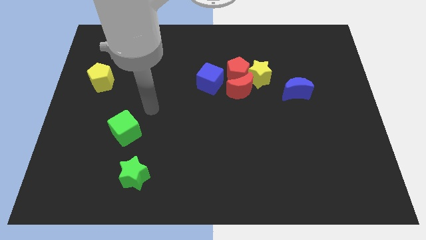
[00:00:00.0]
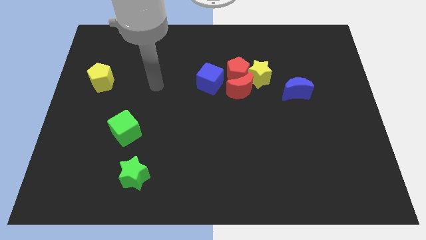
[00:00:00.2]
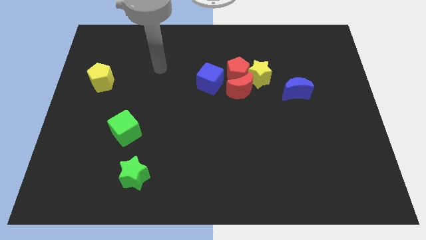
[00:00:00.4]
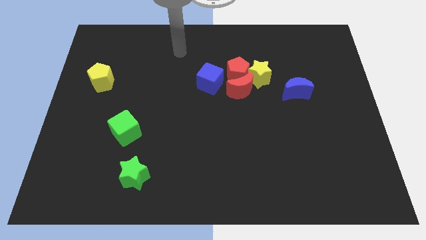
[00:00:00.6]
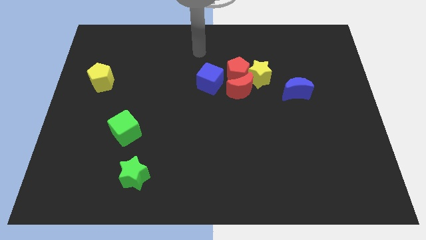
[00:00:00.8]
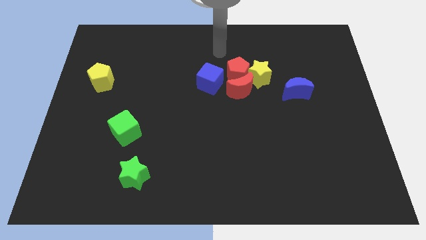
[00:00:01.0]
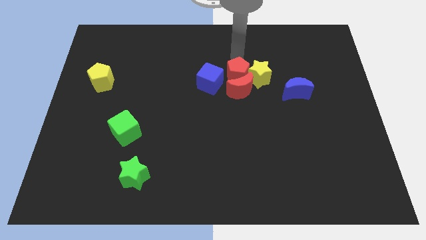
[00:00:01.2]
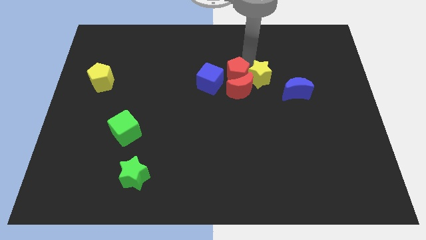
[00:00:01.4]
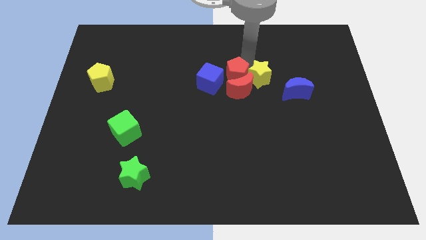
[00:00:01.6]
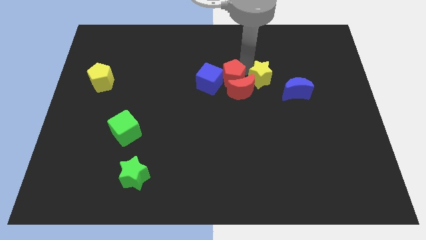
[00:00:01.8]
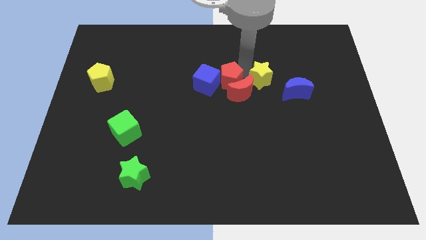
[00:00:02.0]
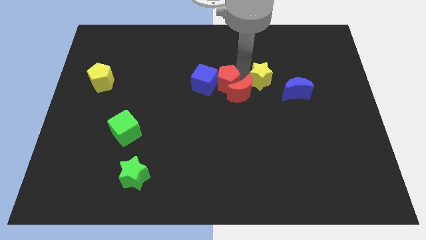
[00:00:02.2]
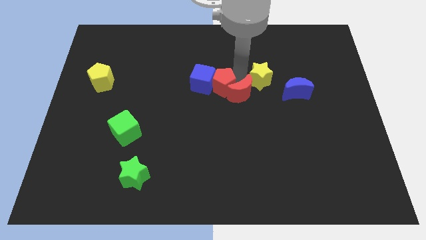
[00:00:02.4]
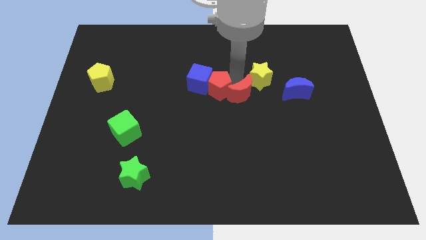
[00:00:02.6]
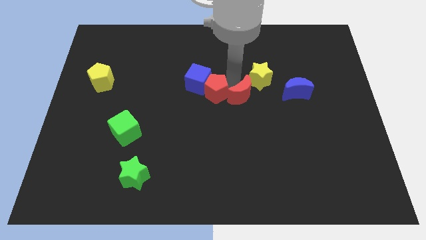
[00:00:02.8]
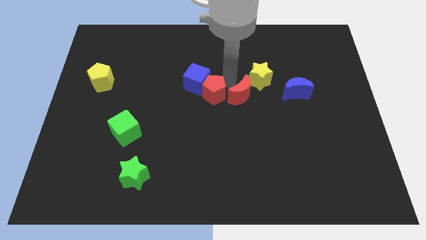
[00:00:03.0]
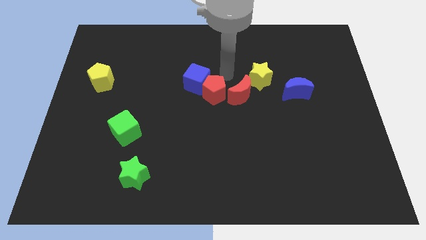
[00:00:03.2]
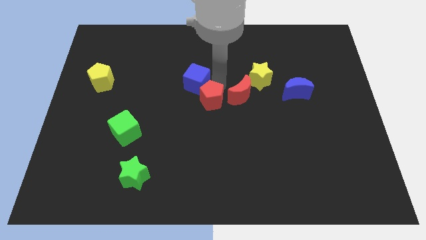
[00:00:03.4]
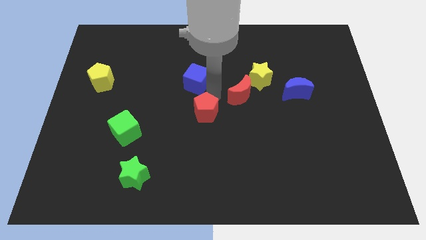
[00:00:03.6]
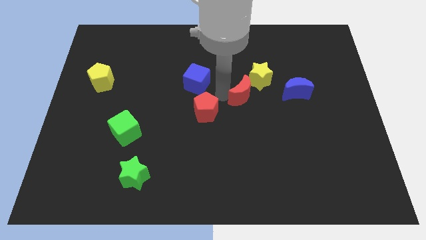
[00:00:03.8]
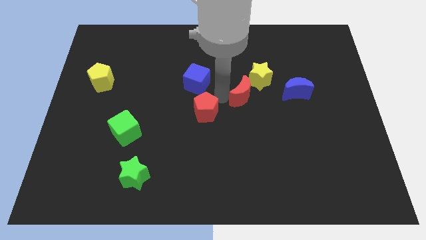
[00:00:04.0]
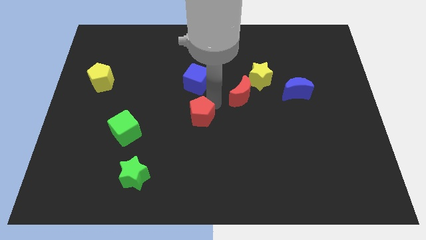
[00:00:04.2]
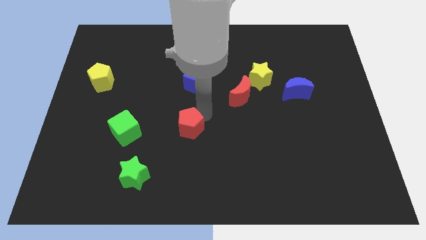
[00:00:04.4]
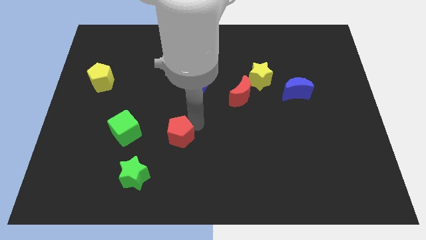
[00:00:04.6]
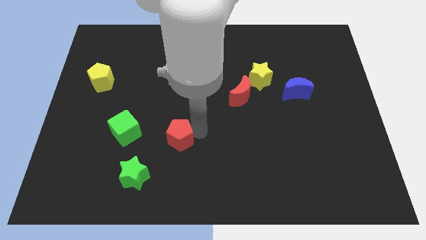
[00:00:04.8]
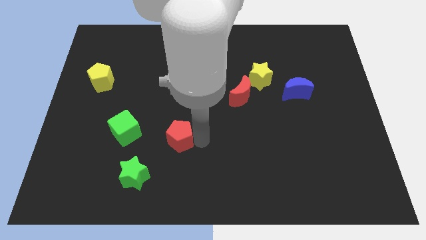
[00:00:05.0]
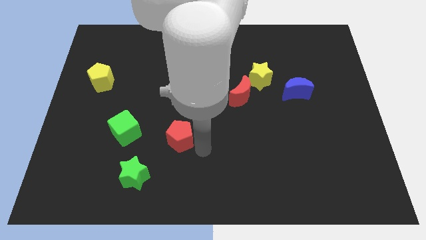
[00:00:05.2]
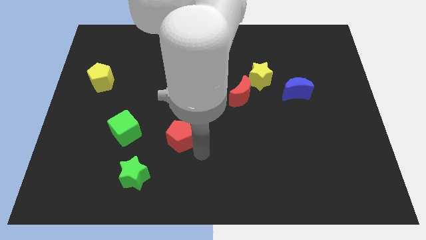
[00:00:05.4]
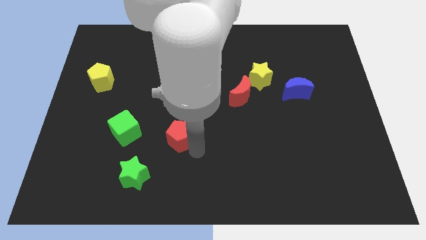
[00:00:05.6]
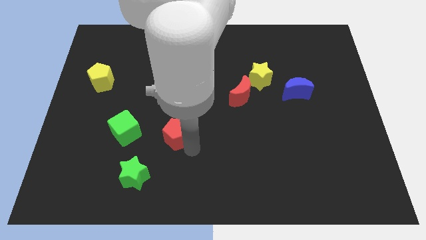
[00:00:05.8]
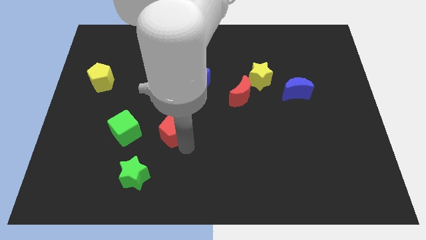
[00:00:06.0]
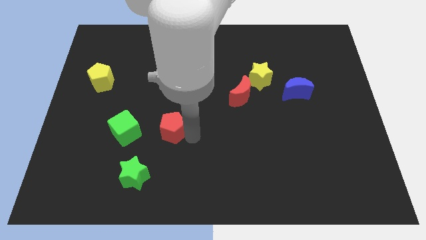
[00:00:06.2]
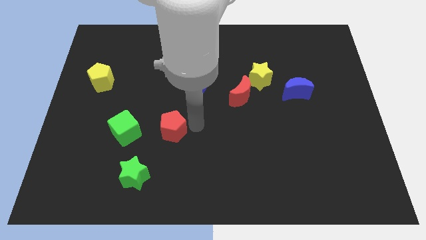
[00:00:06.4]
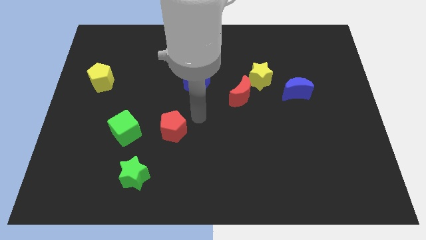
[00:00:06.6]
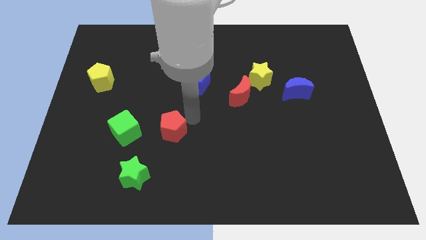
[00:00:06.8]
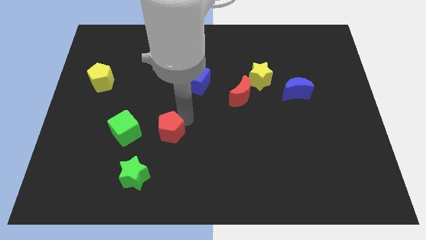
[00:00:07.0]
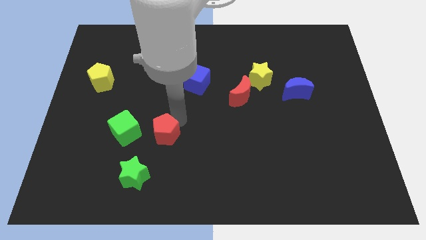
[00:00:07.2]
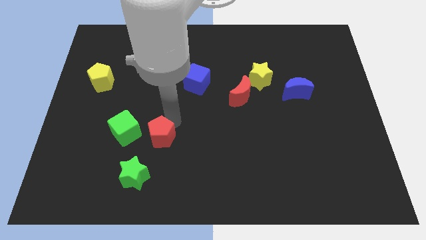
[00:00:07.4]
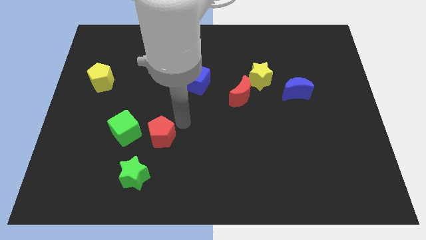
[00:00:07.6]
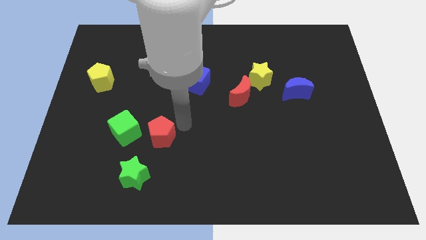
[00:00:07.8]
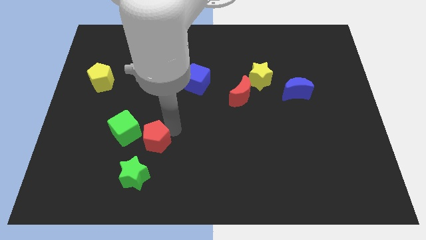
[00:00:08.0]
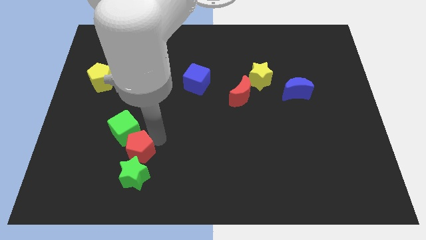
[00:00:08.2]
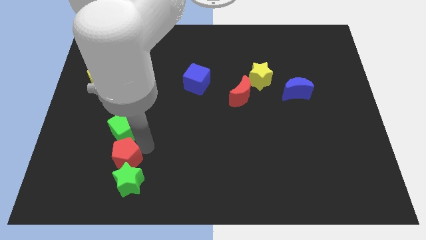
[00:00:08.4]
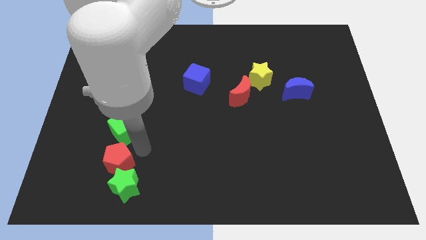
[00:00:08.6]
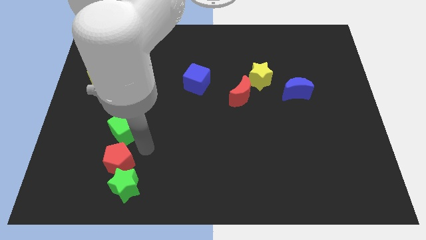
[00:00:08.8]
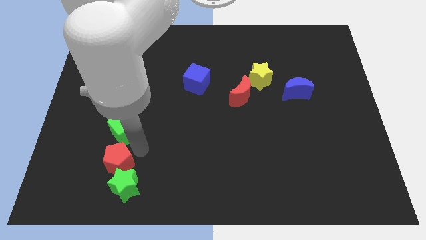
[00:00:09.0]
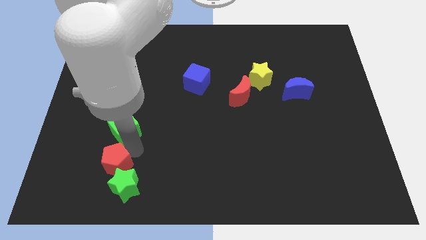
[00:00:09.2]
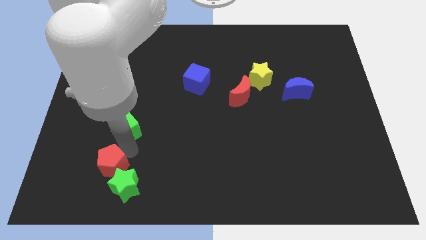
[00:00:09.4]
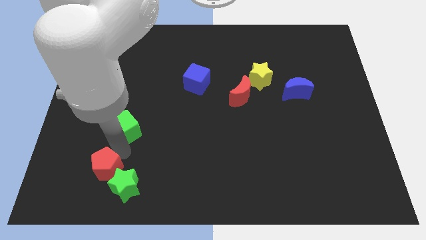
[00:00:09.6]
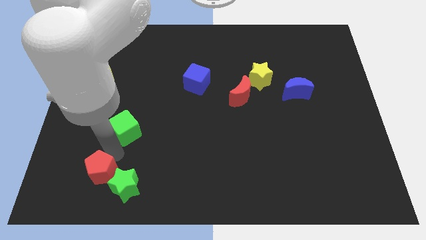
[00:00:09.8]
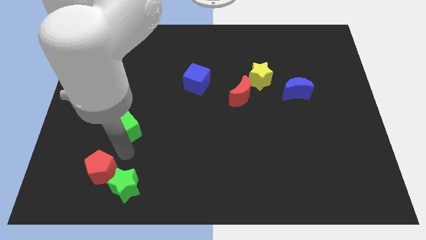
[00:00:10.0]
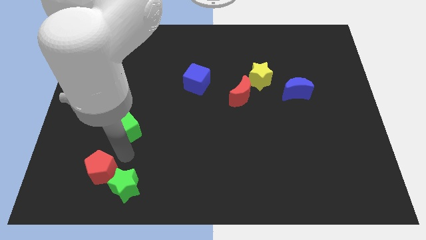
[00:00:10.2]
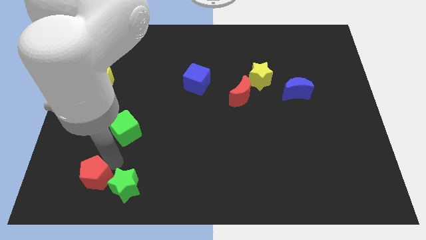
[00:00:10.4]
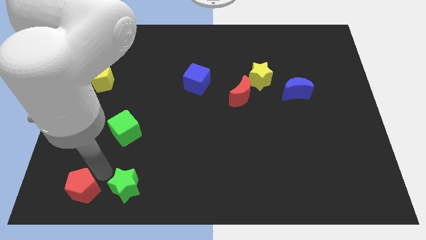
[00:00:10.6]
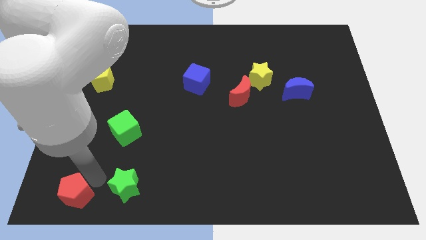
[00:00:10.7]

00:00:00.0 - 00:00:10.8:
move the red pentagon to the bottom left corner
